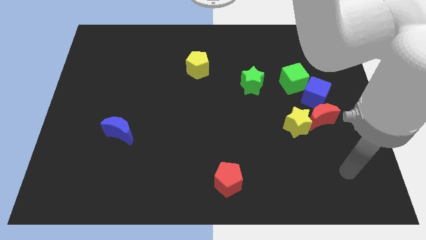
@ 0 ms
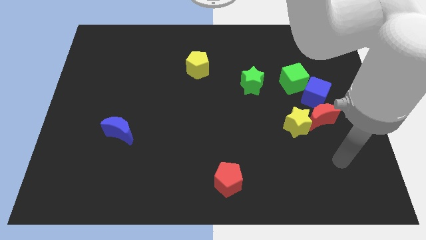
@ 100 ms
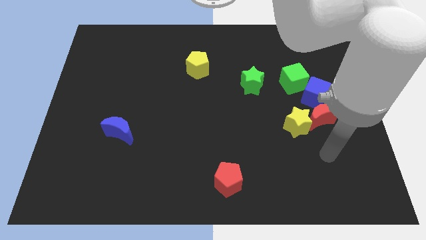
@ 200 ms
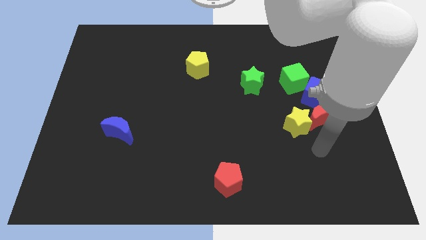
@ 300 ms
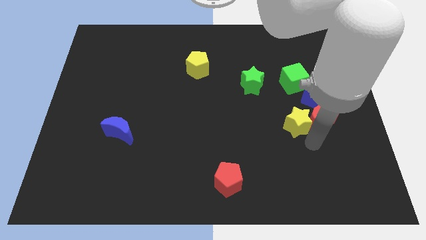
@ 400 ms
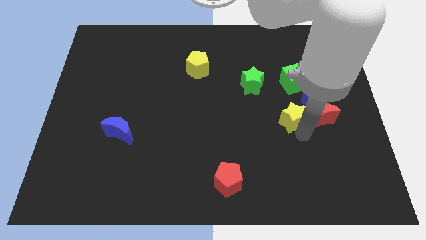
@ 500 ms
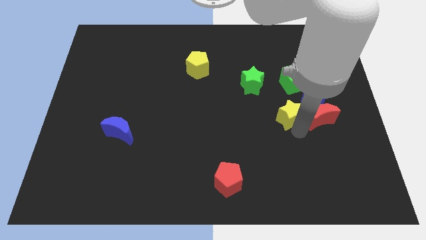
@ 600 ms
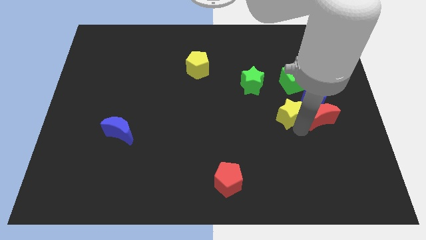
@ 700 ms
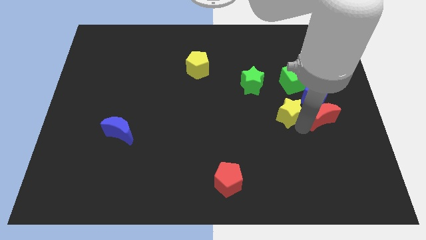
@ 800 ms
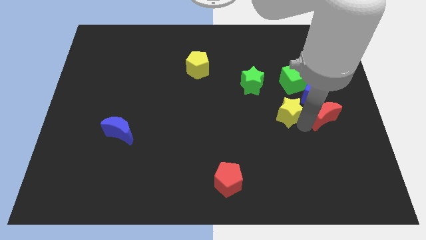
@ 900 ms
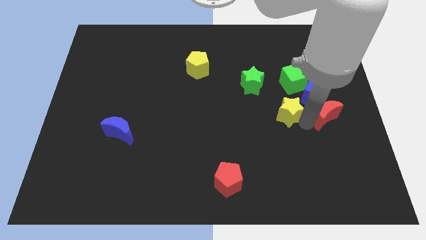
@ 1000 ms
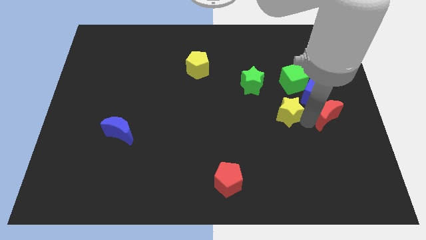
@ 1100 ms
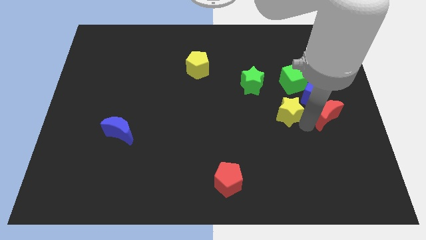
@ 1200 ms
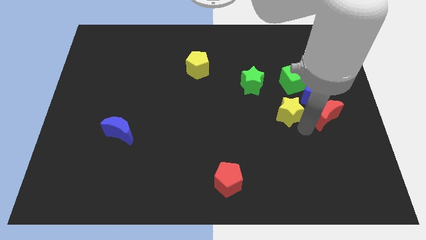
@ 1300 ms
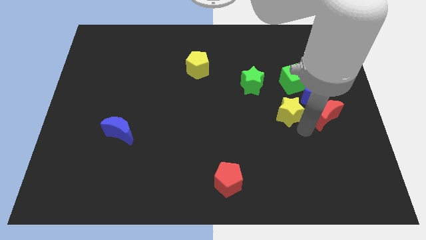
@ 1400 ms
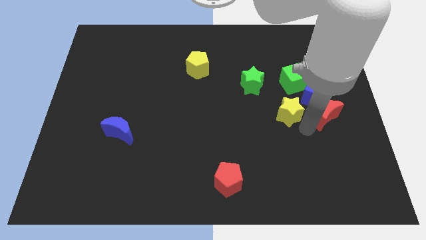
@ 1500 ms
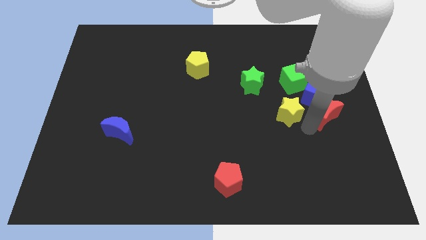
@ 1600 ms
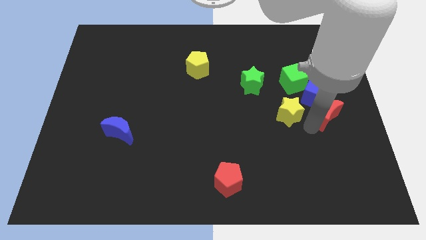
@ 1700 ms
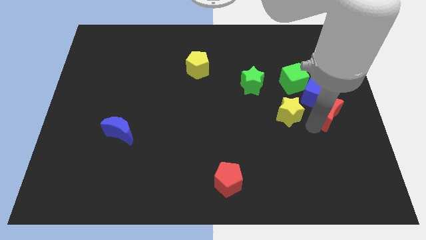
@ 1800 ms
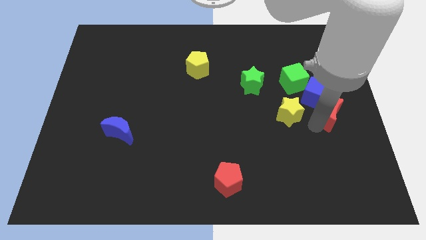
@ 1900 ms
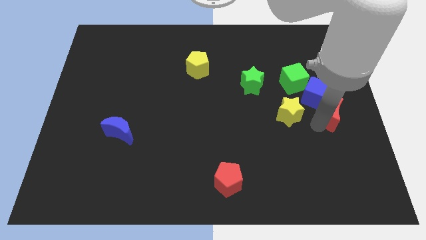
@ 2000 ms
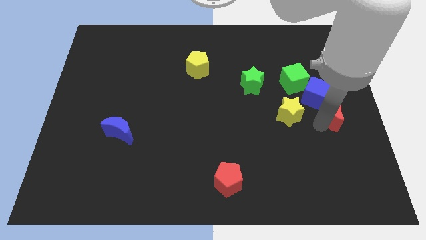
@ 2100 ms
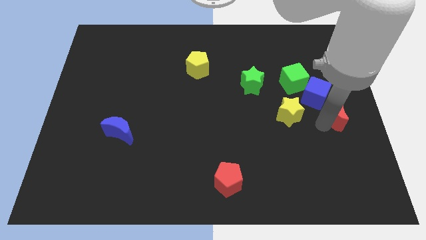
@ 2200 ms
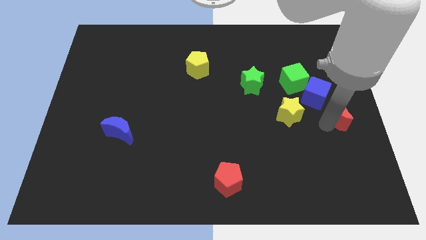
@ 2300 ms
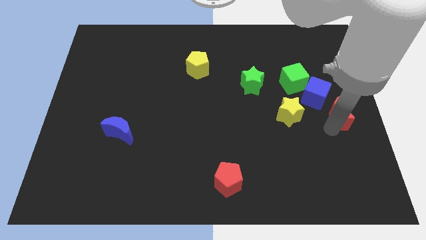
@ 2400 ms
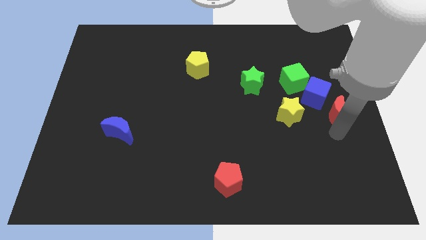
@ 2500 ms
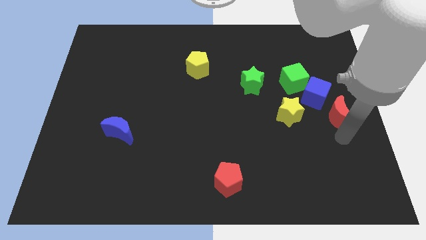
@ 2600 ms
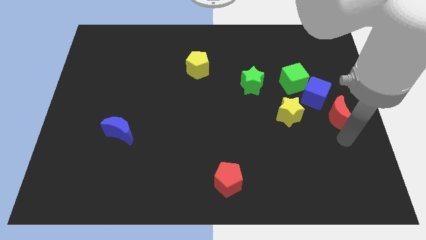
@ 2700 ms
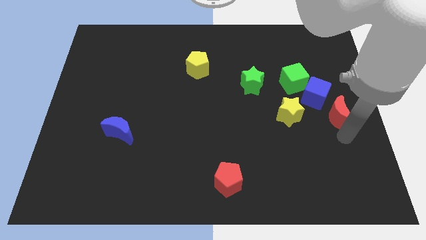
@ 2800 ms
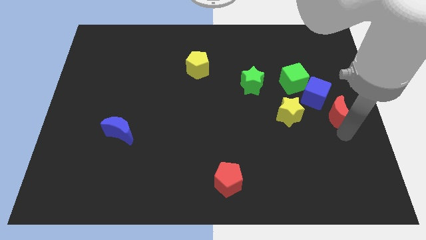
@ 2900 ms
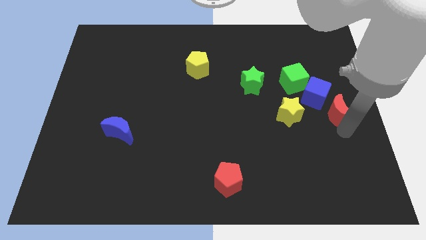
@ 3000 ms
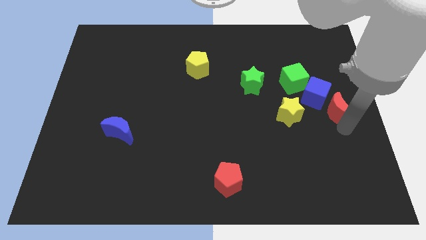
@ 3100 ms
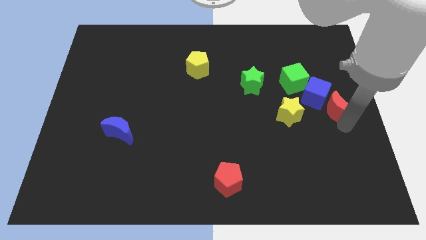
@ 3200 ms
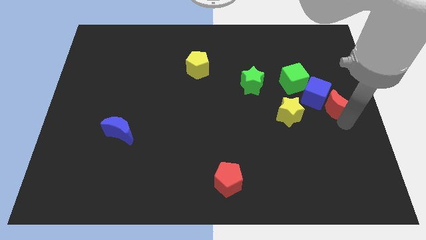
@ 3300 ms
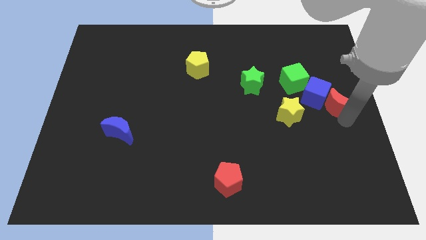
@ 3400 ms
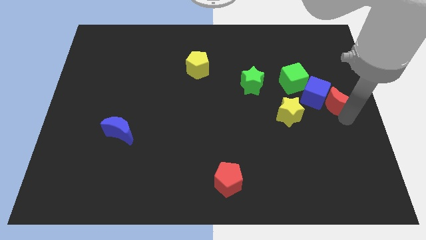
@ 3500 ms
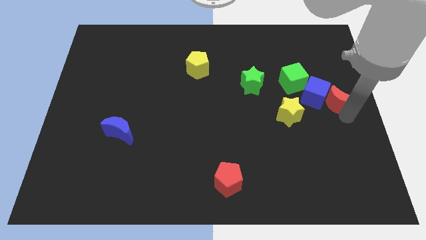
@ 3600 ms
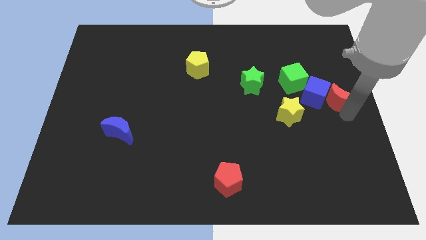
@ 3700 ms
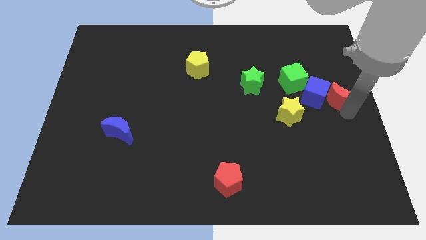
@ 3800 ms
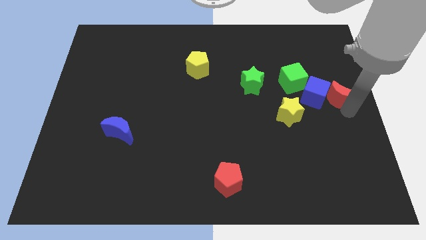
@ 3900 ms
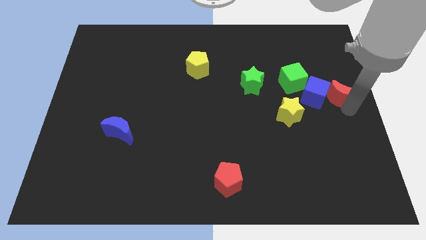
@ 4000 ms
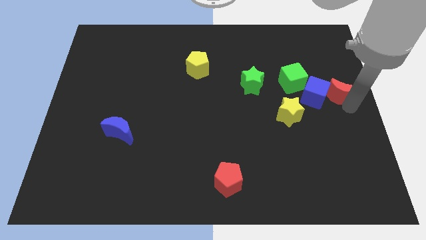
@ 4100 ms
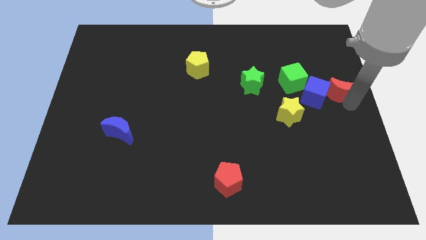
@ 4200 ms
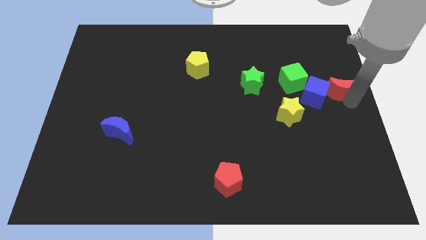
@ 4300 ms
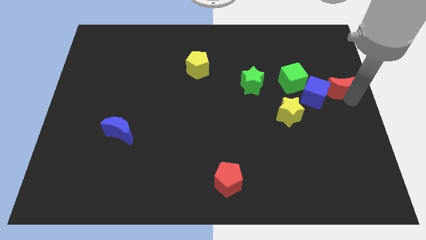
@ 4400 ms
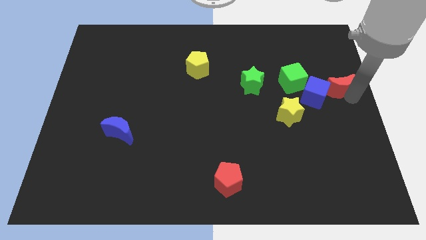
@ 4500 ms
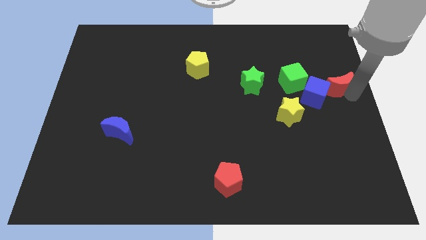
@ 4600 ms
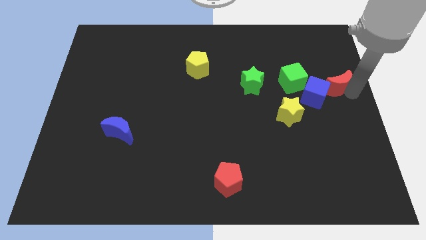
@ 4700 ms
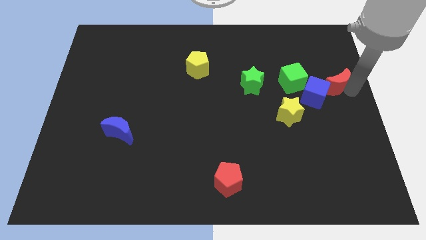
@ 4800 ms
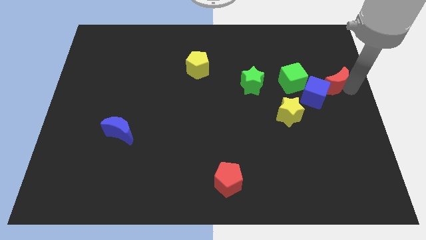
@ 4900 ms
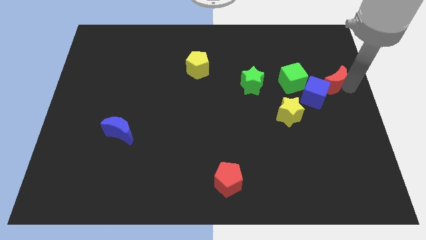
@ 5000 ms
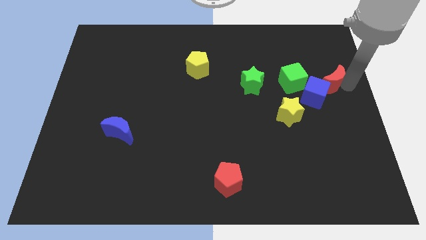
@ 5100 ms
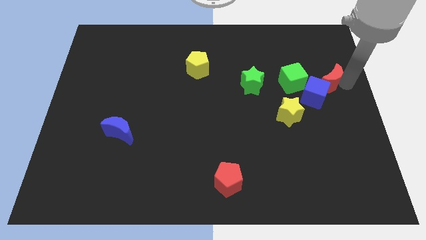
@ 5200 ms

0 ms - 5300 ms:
put the red moon to the top of the blue cube

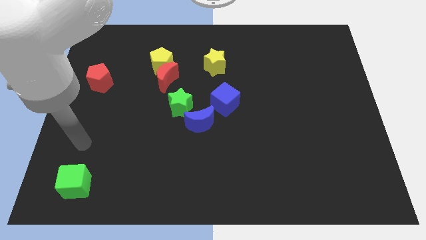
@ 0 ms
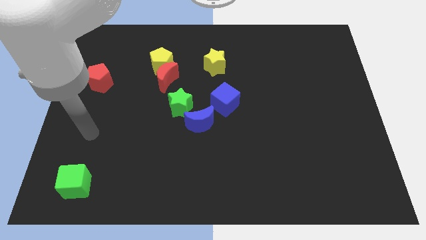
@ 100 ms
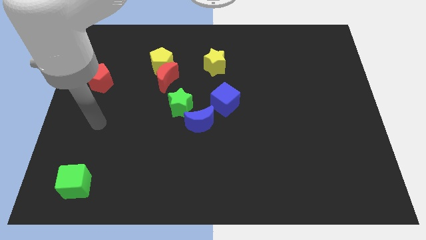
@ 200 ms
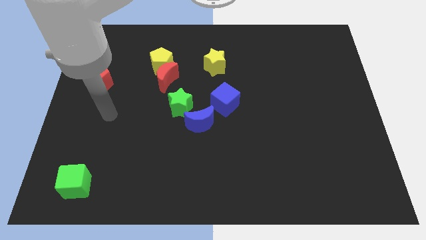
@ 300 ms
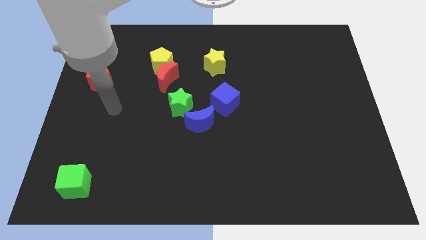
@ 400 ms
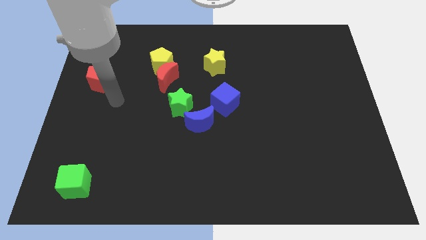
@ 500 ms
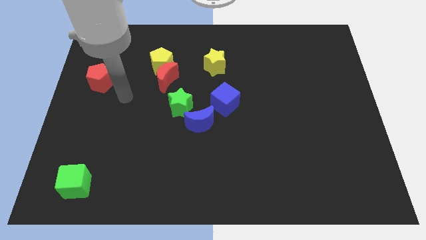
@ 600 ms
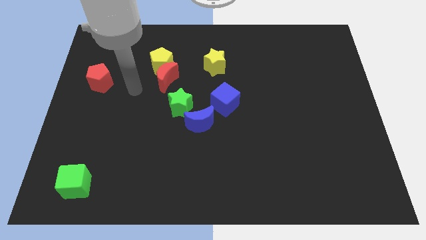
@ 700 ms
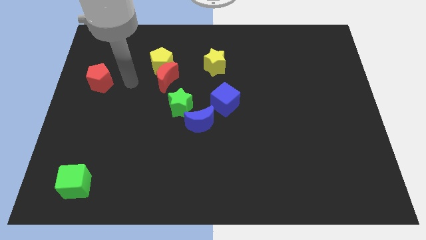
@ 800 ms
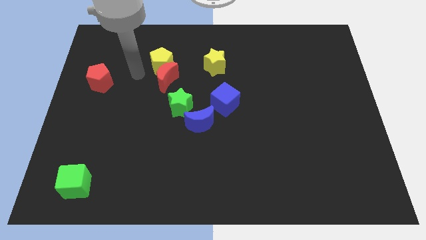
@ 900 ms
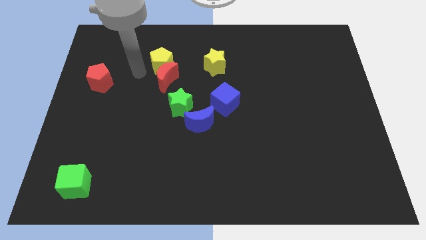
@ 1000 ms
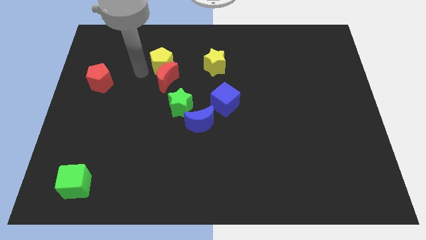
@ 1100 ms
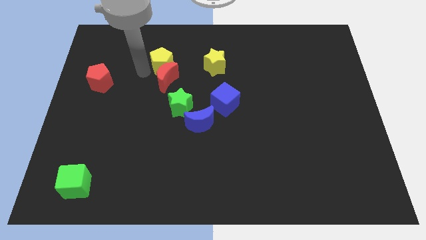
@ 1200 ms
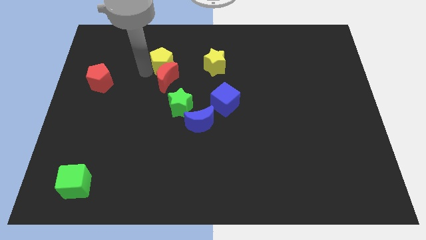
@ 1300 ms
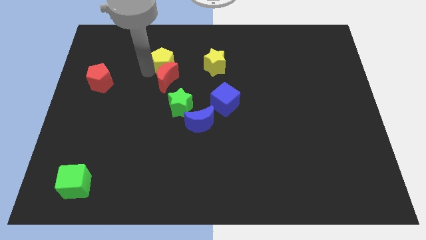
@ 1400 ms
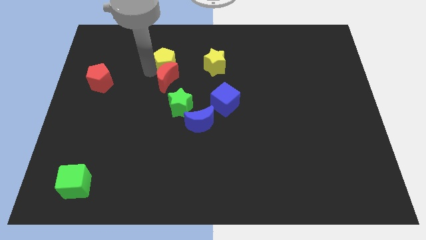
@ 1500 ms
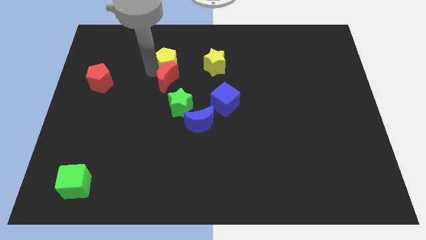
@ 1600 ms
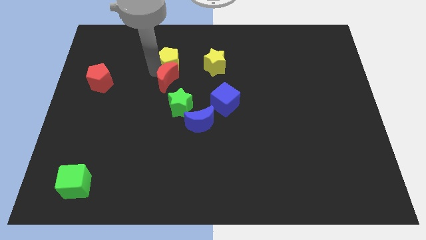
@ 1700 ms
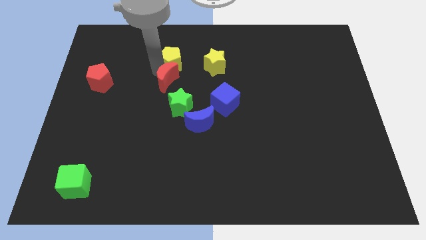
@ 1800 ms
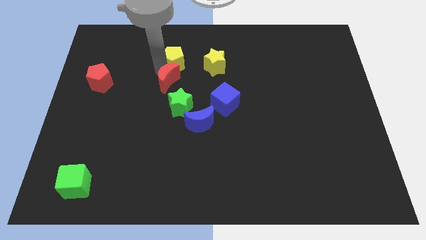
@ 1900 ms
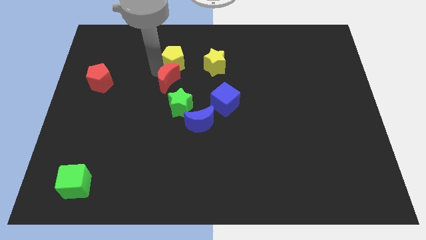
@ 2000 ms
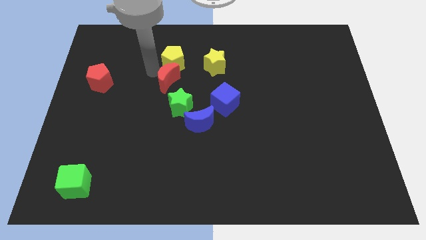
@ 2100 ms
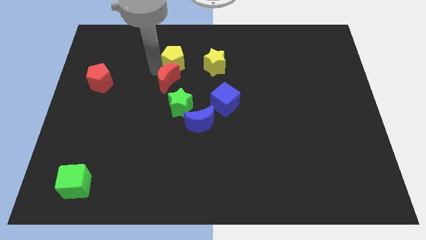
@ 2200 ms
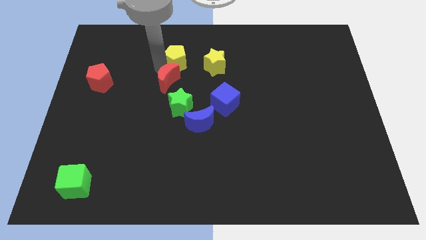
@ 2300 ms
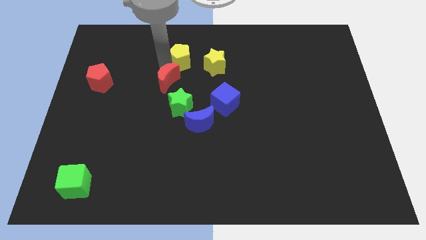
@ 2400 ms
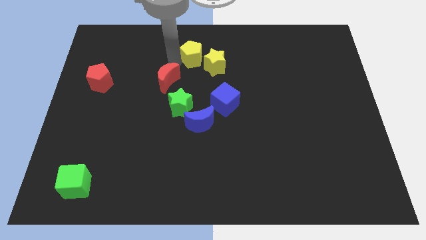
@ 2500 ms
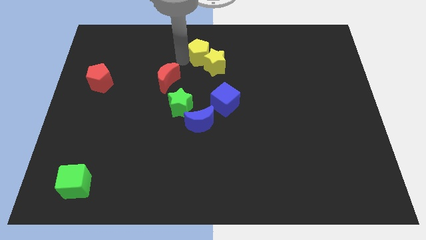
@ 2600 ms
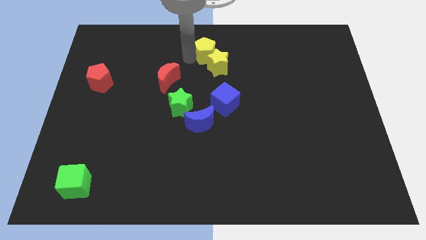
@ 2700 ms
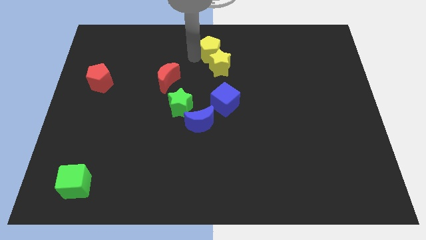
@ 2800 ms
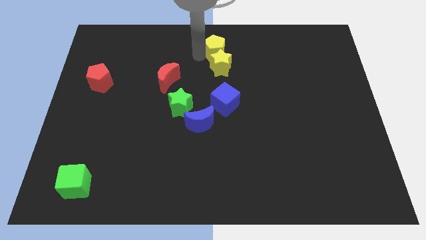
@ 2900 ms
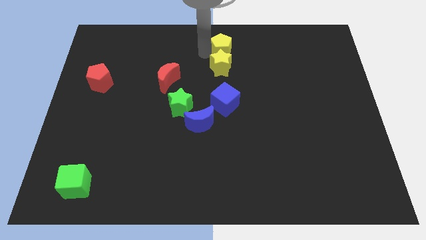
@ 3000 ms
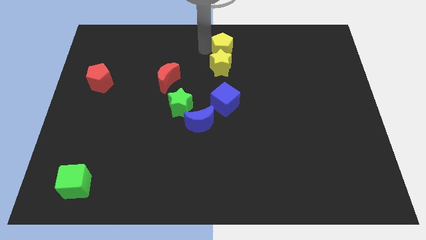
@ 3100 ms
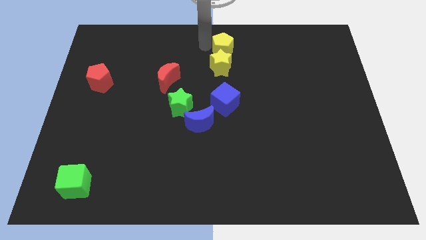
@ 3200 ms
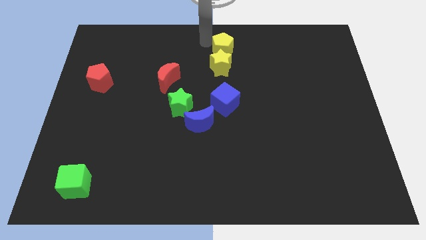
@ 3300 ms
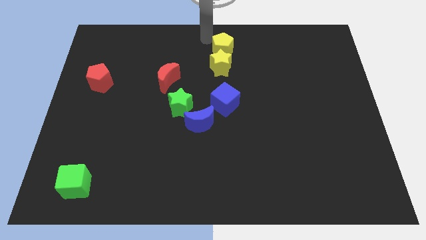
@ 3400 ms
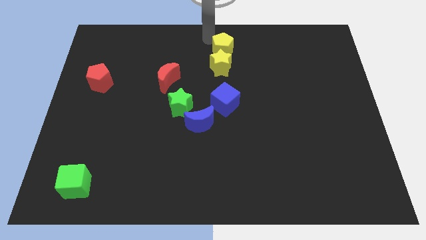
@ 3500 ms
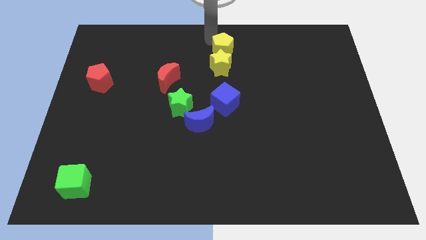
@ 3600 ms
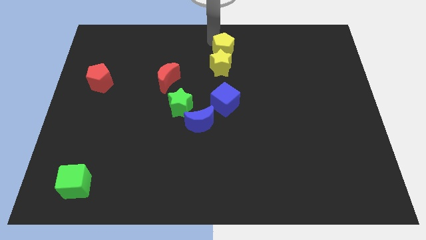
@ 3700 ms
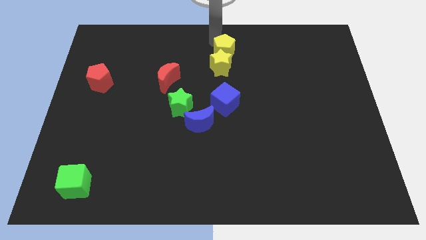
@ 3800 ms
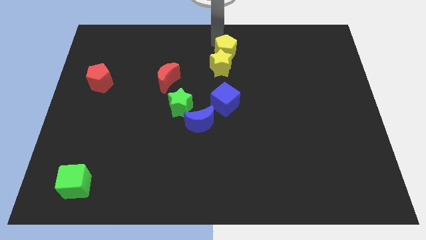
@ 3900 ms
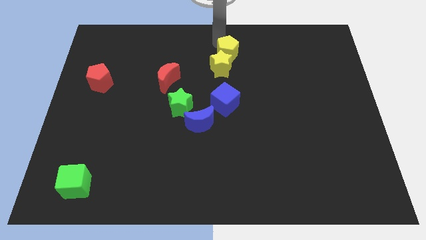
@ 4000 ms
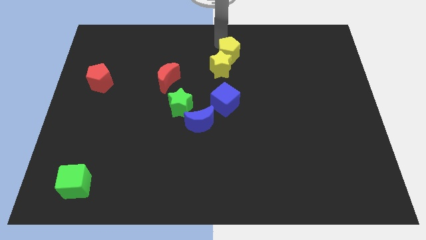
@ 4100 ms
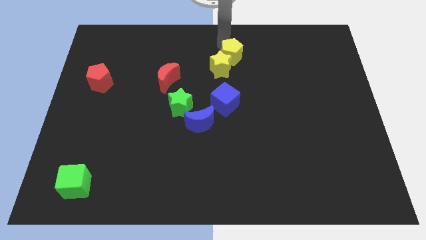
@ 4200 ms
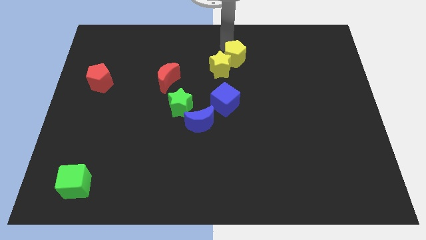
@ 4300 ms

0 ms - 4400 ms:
slide the yellow pentagon to the right of the yellow star
